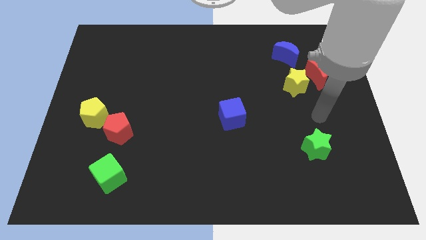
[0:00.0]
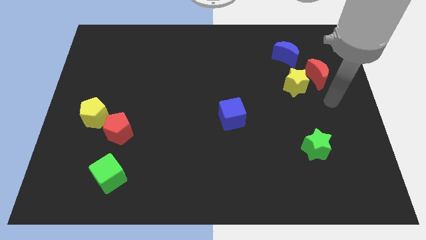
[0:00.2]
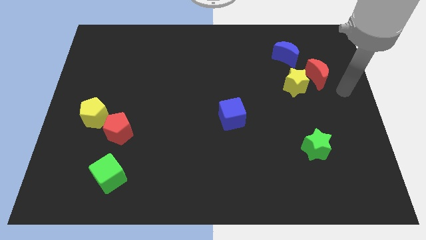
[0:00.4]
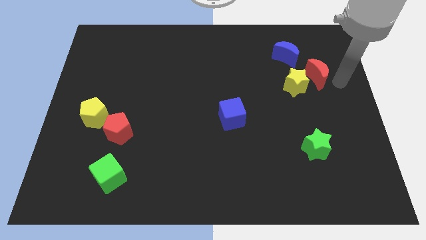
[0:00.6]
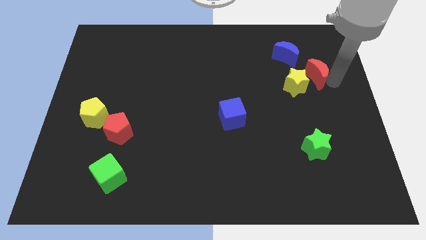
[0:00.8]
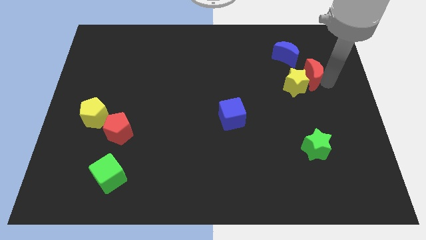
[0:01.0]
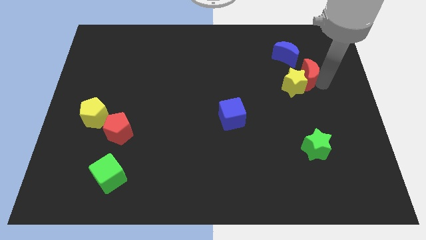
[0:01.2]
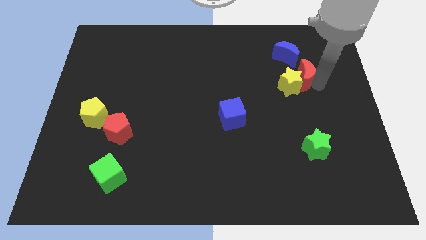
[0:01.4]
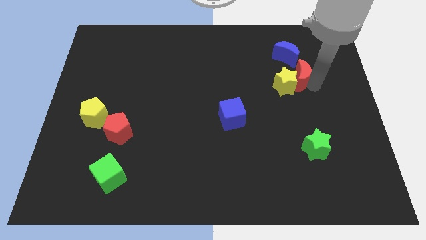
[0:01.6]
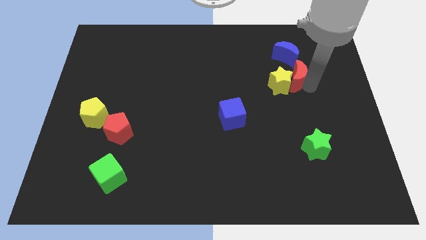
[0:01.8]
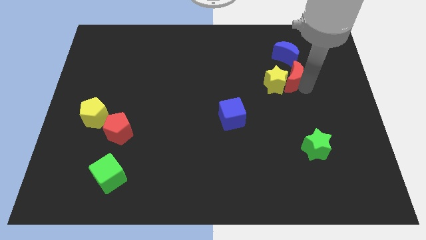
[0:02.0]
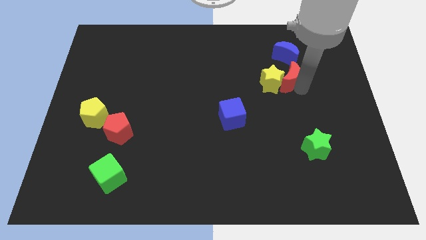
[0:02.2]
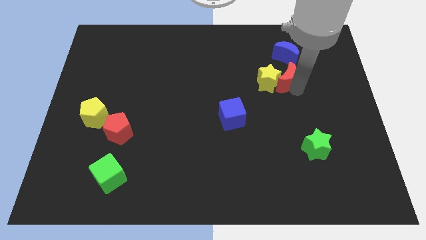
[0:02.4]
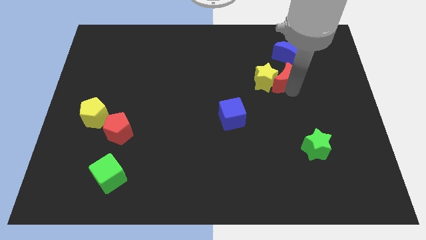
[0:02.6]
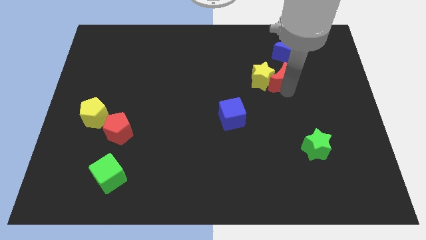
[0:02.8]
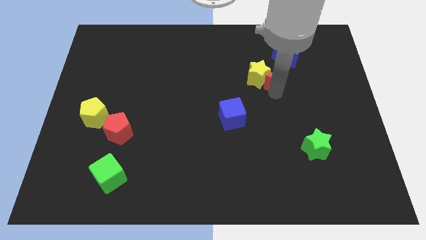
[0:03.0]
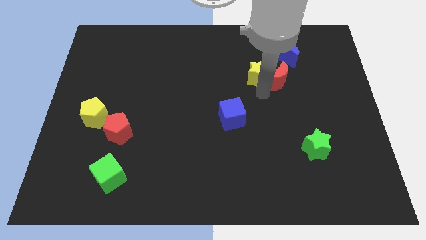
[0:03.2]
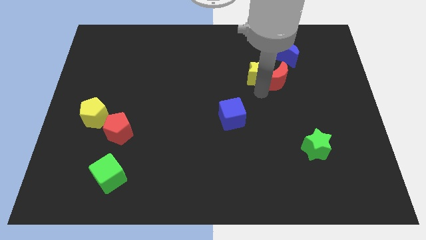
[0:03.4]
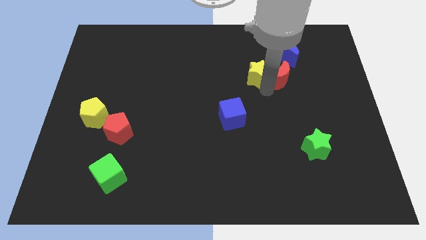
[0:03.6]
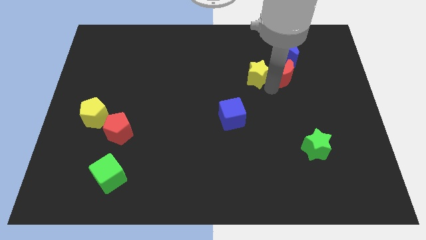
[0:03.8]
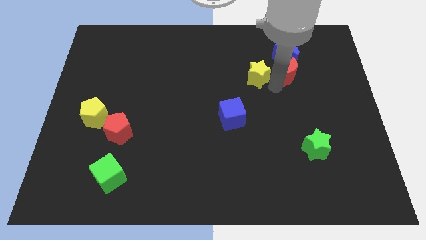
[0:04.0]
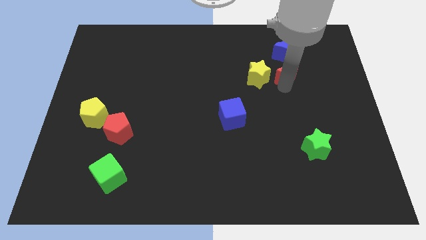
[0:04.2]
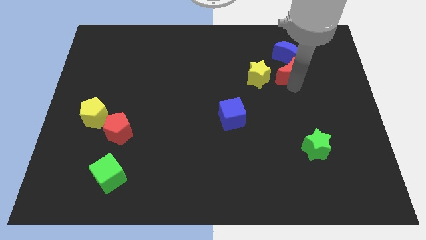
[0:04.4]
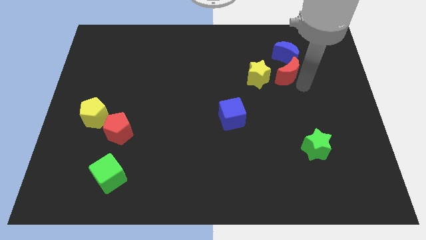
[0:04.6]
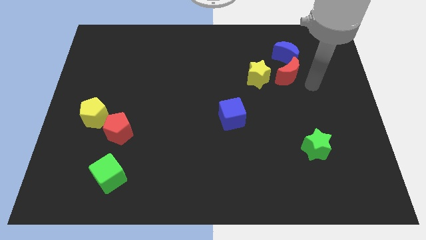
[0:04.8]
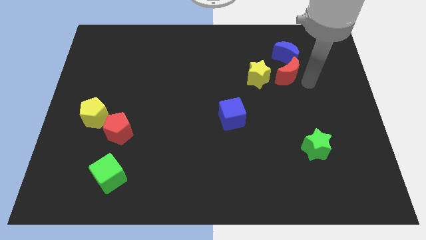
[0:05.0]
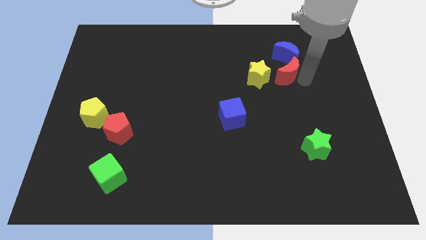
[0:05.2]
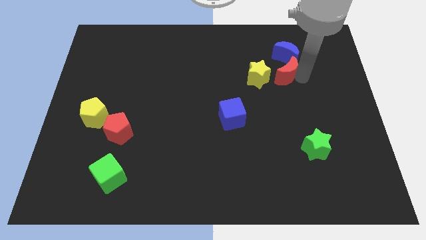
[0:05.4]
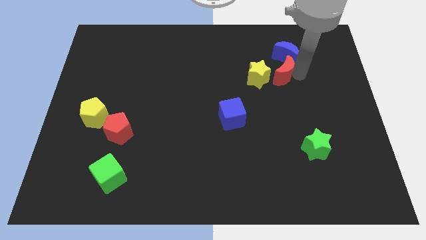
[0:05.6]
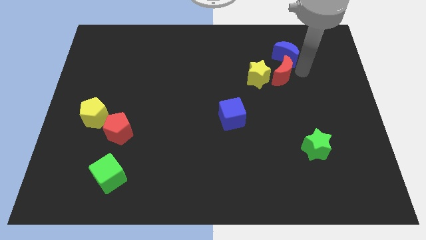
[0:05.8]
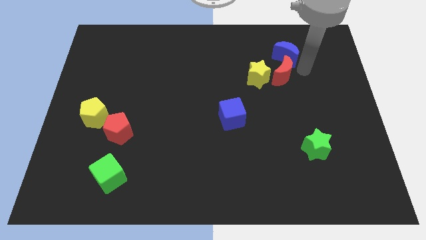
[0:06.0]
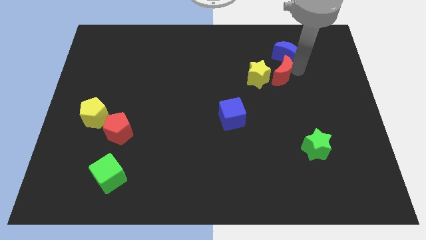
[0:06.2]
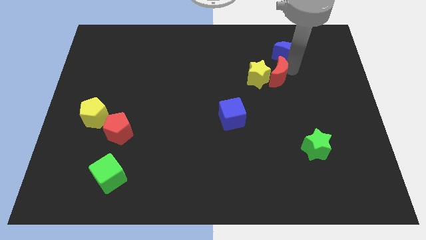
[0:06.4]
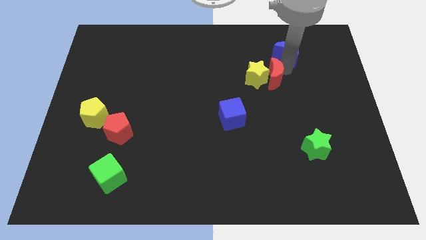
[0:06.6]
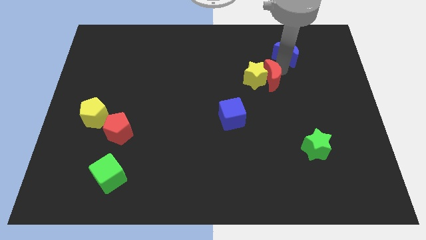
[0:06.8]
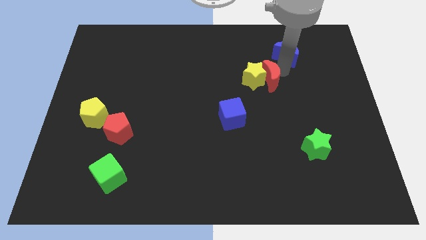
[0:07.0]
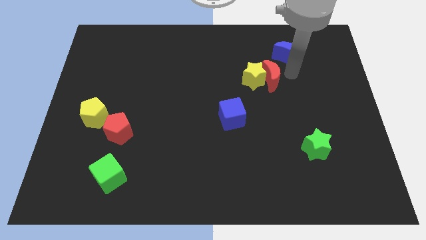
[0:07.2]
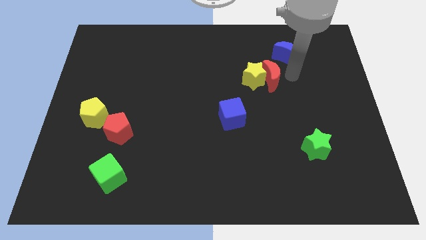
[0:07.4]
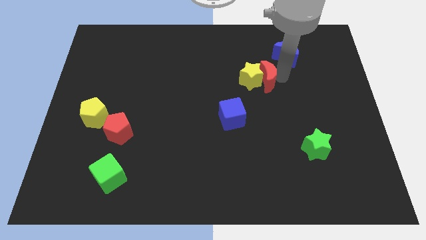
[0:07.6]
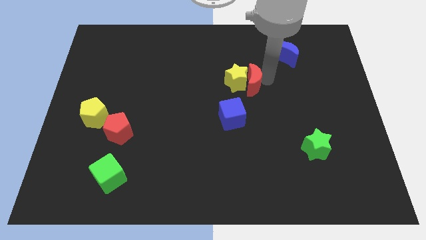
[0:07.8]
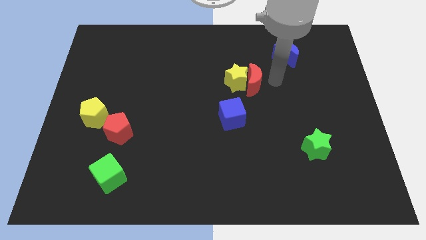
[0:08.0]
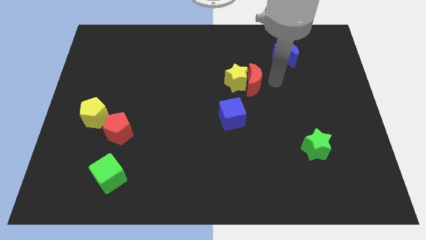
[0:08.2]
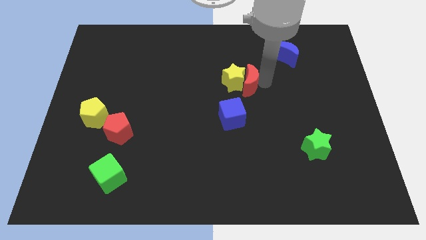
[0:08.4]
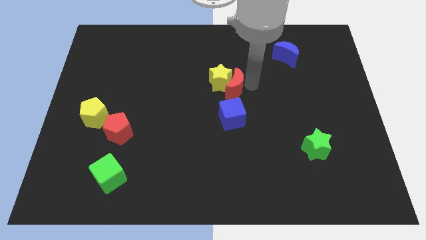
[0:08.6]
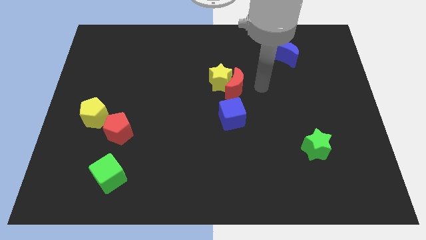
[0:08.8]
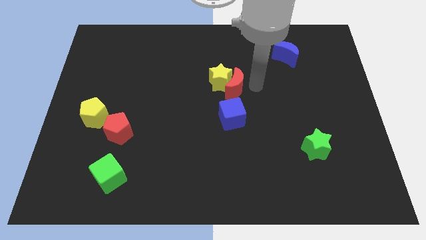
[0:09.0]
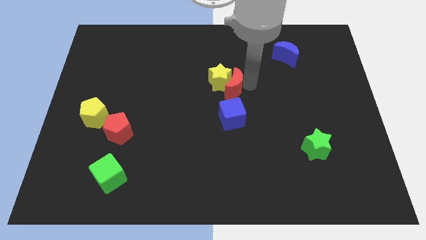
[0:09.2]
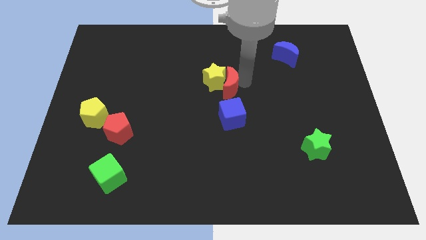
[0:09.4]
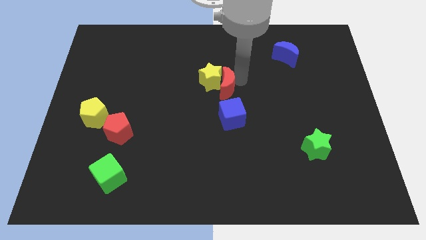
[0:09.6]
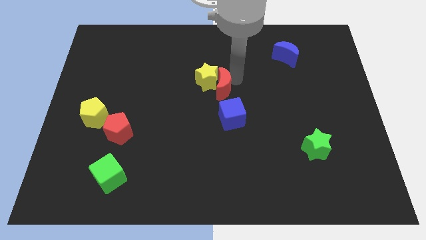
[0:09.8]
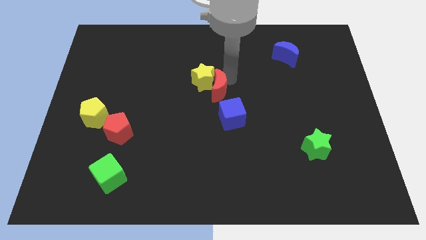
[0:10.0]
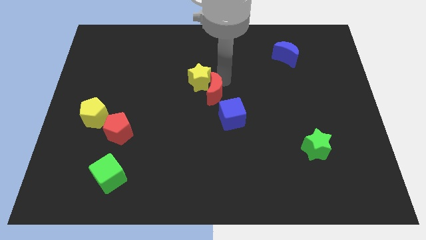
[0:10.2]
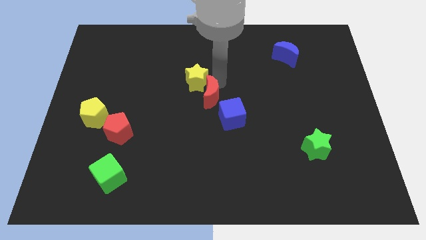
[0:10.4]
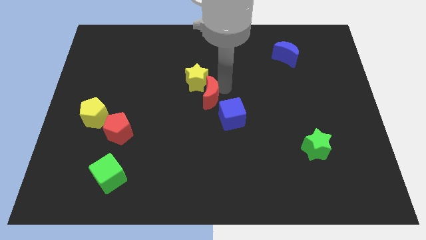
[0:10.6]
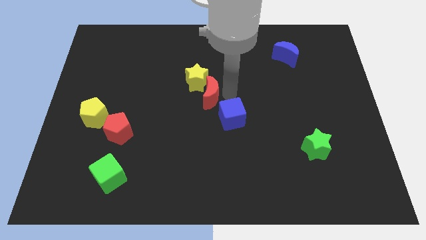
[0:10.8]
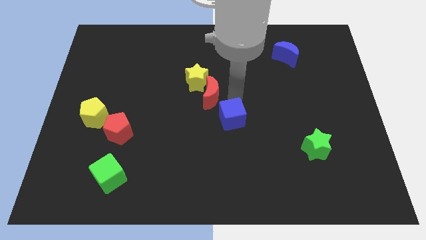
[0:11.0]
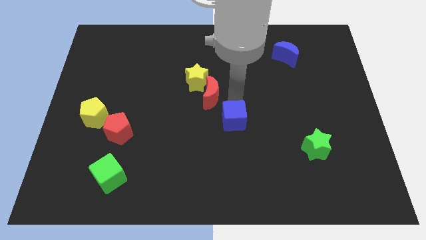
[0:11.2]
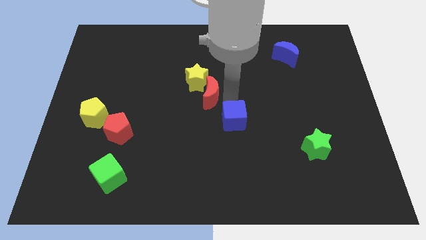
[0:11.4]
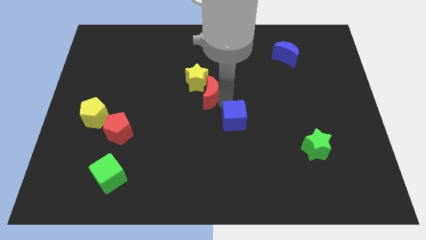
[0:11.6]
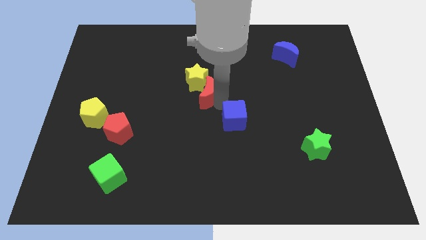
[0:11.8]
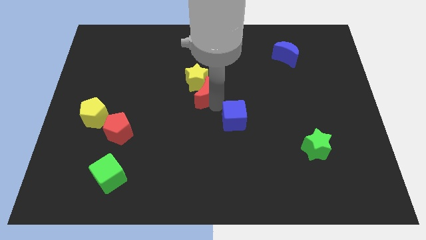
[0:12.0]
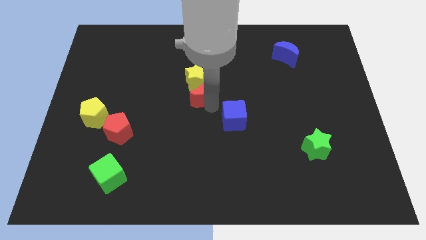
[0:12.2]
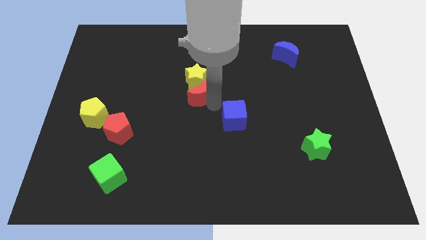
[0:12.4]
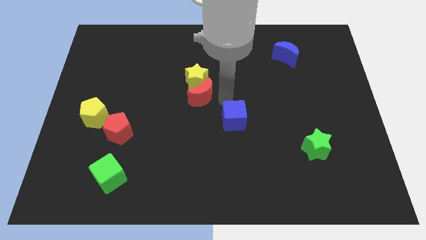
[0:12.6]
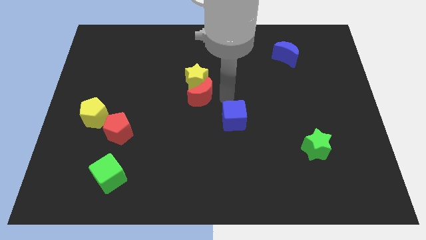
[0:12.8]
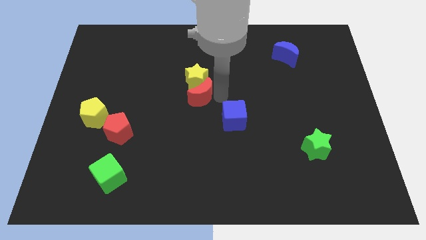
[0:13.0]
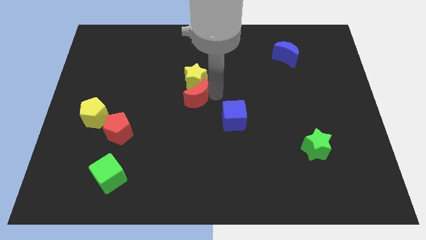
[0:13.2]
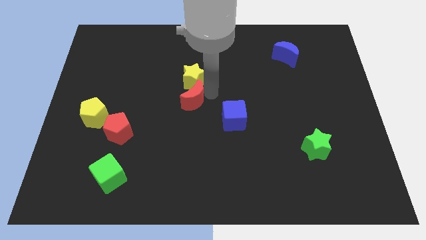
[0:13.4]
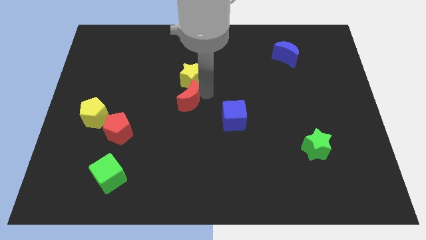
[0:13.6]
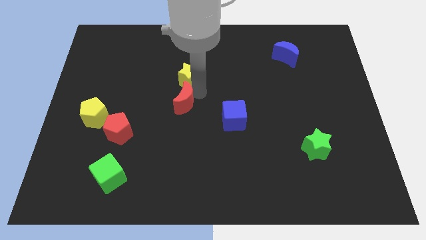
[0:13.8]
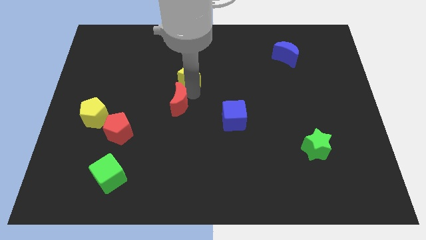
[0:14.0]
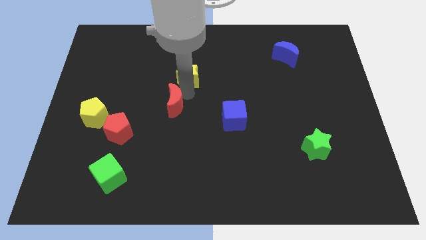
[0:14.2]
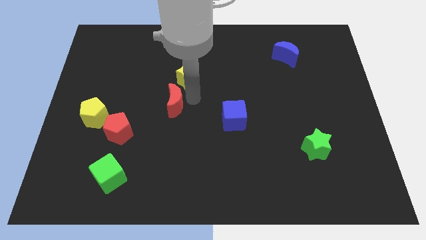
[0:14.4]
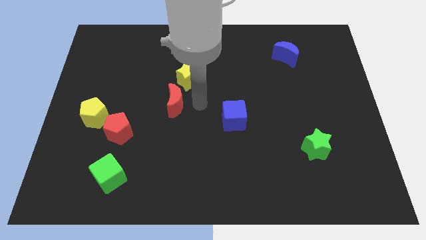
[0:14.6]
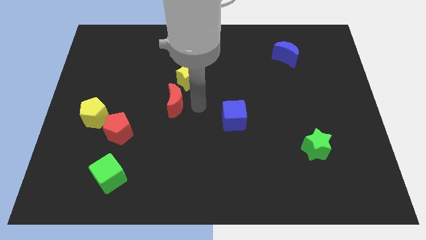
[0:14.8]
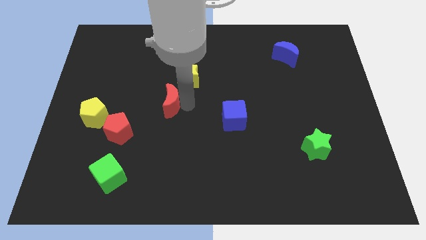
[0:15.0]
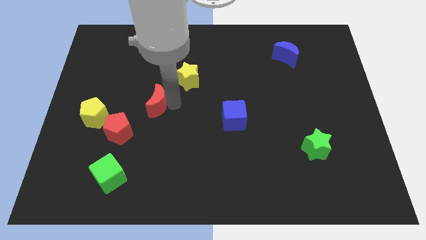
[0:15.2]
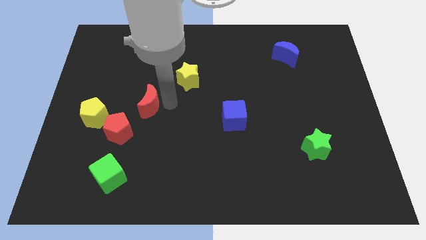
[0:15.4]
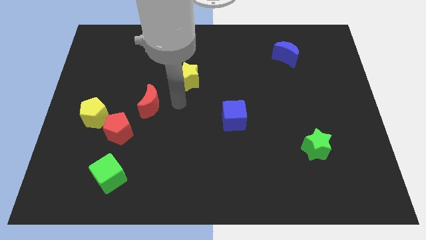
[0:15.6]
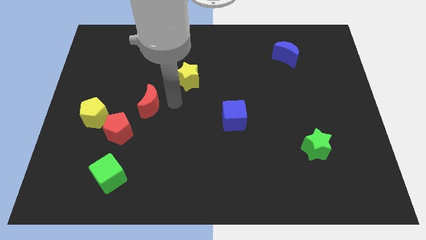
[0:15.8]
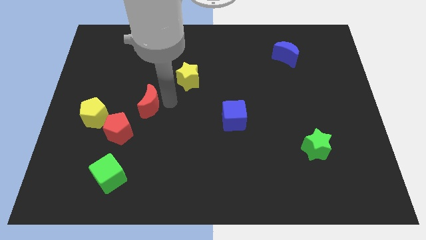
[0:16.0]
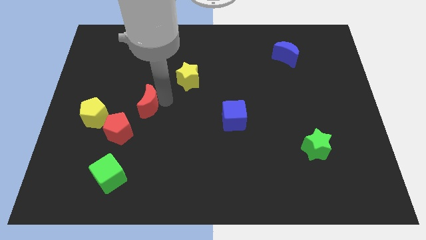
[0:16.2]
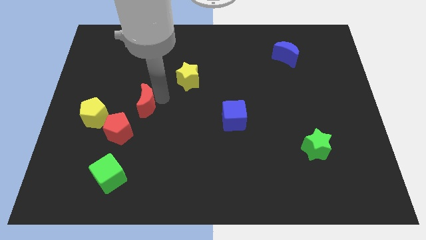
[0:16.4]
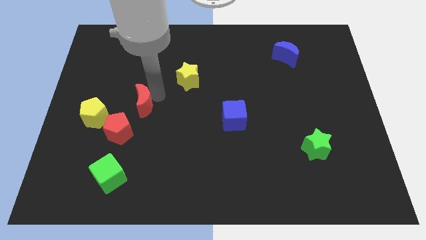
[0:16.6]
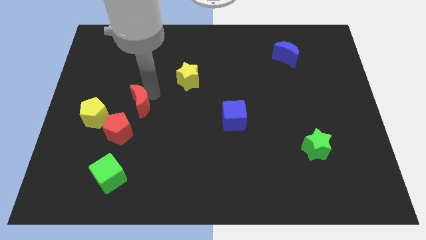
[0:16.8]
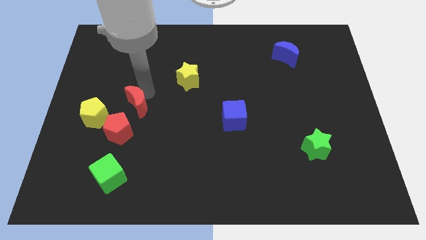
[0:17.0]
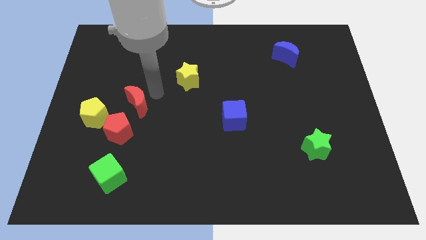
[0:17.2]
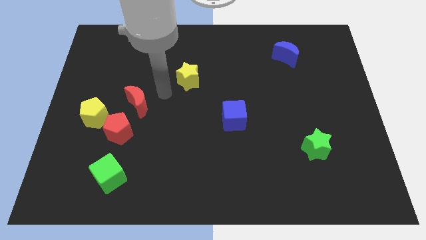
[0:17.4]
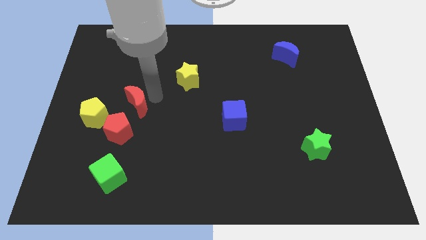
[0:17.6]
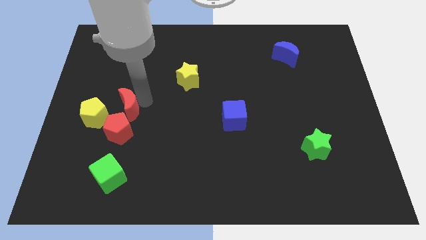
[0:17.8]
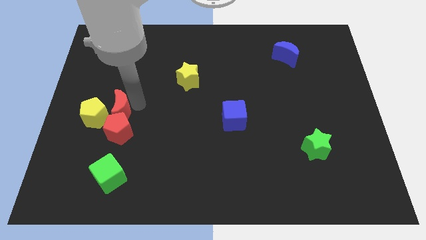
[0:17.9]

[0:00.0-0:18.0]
put the red moon next to the yellow pentagon
